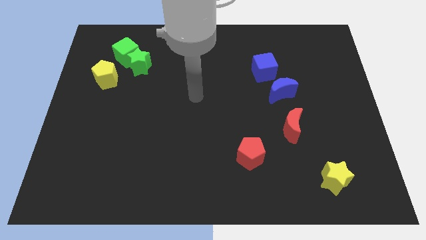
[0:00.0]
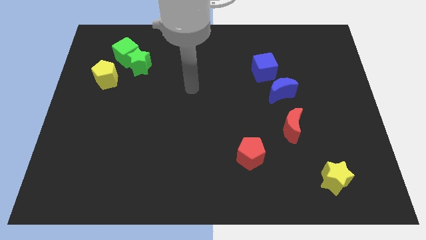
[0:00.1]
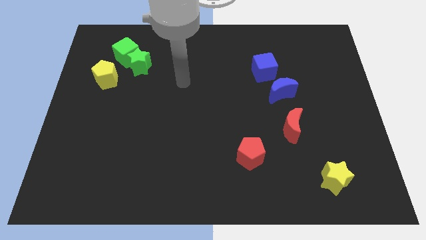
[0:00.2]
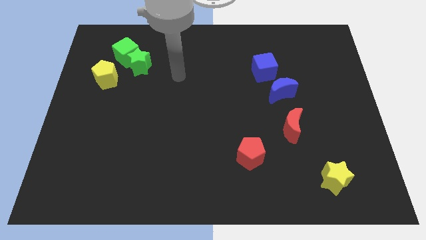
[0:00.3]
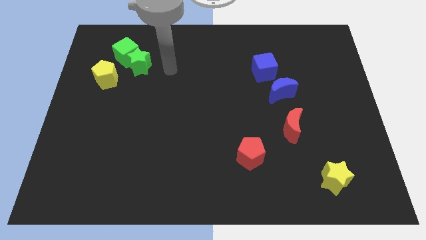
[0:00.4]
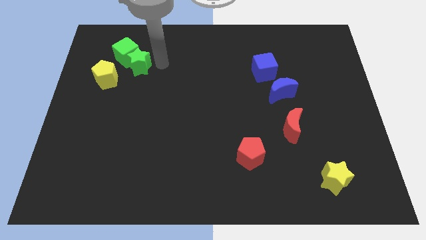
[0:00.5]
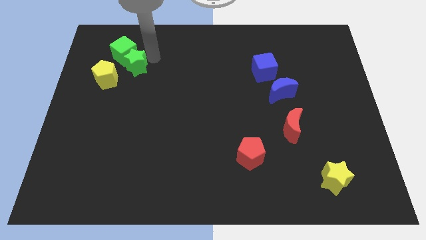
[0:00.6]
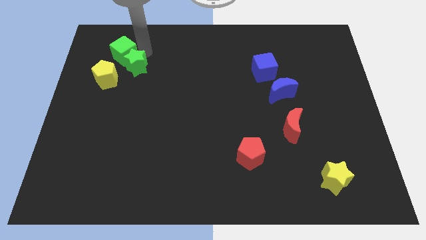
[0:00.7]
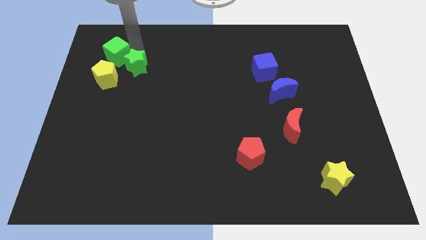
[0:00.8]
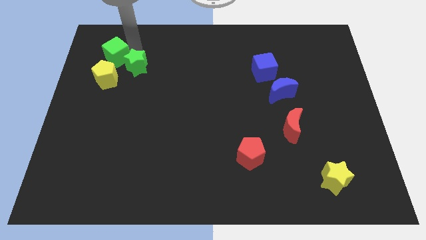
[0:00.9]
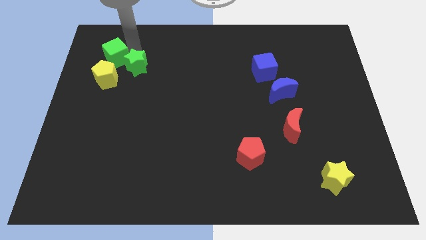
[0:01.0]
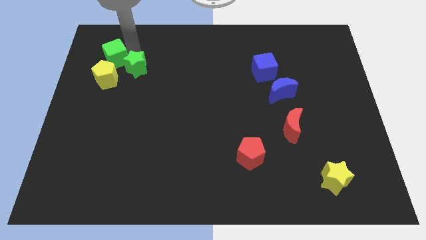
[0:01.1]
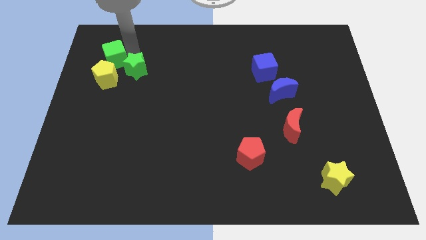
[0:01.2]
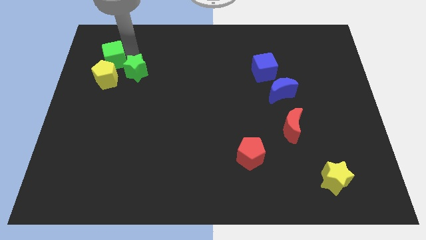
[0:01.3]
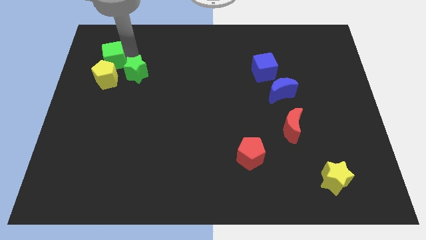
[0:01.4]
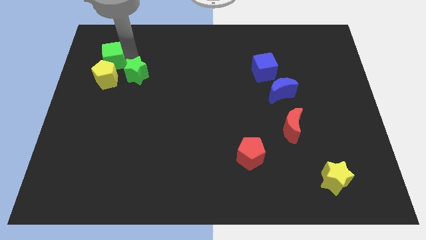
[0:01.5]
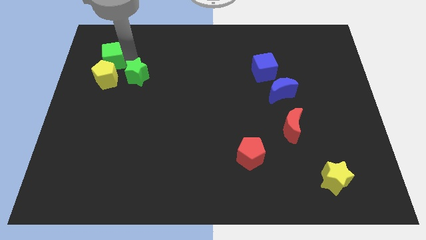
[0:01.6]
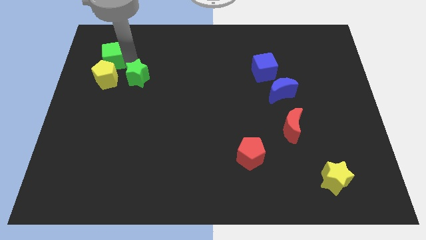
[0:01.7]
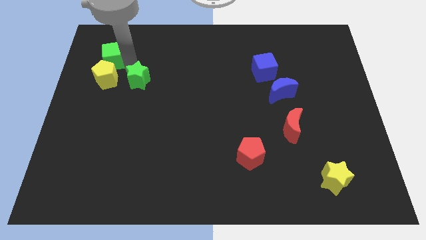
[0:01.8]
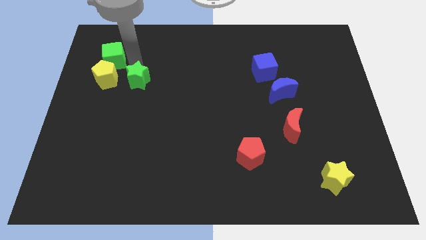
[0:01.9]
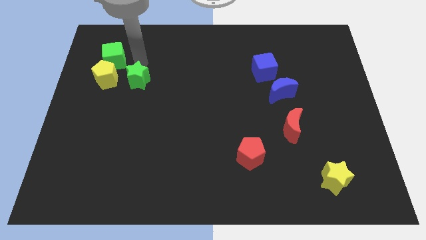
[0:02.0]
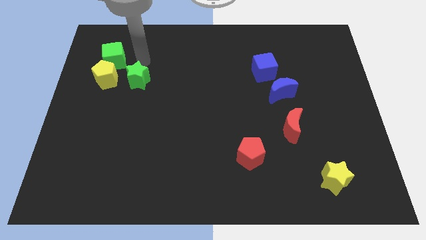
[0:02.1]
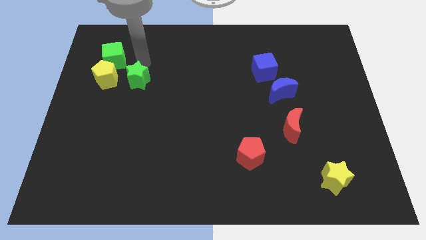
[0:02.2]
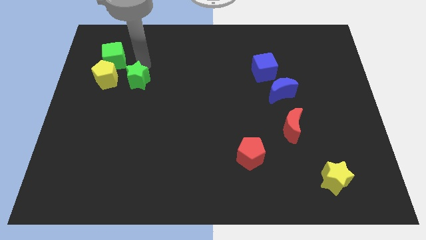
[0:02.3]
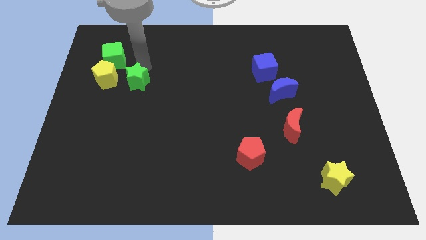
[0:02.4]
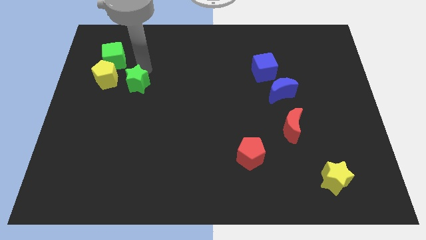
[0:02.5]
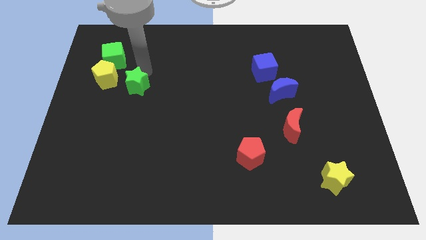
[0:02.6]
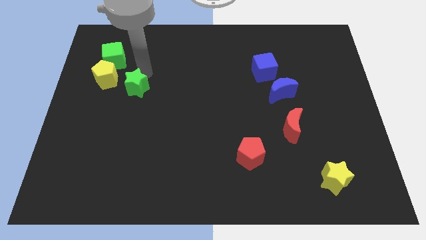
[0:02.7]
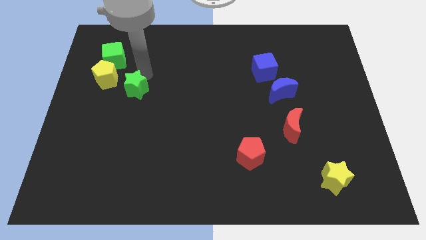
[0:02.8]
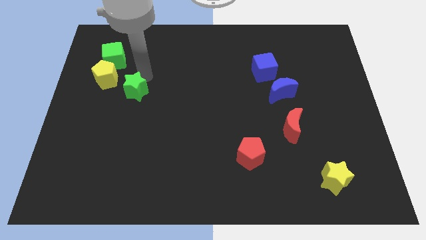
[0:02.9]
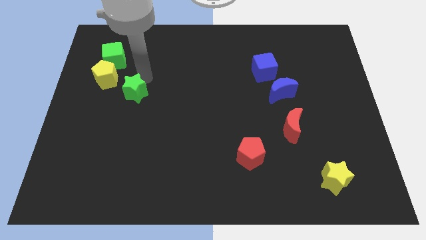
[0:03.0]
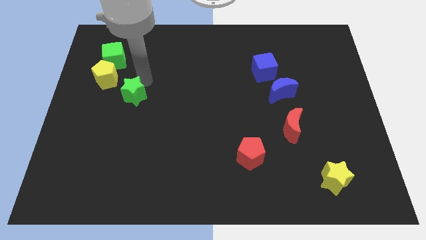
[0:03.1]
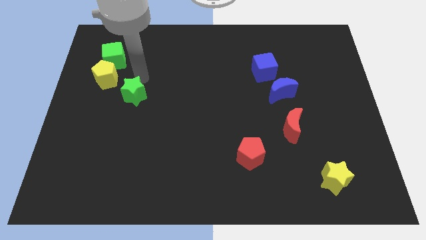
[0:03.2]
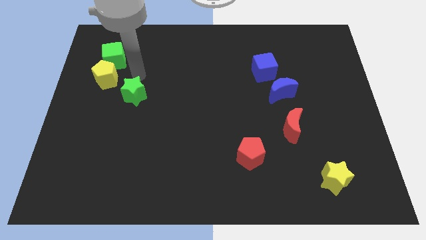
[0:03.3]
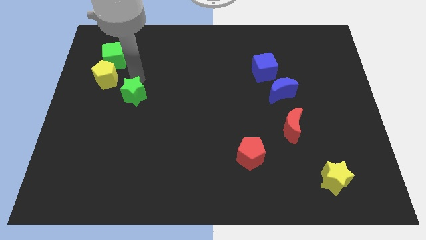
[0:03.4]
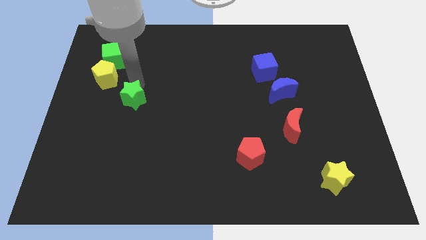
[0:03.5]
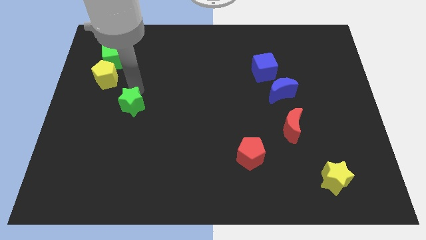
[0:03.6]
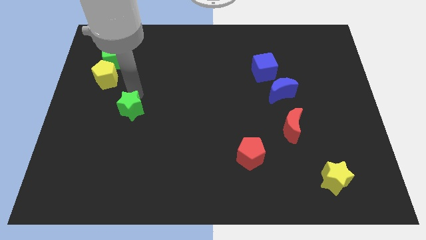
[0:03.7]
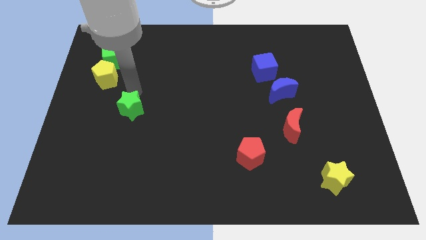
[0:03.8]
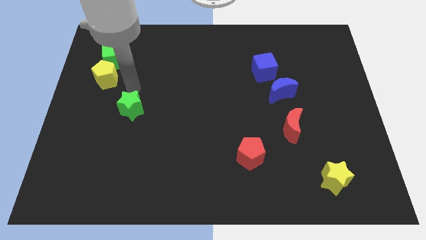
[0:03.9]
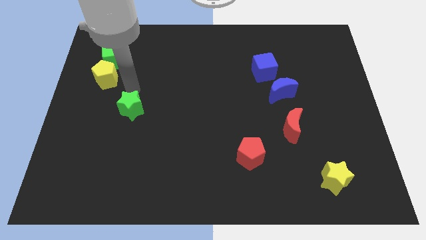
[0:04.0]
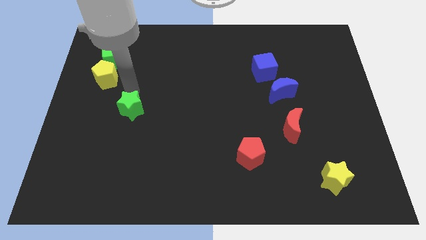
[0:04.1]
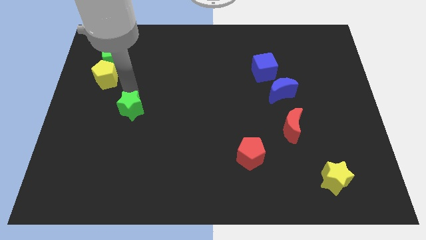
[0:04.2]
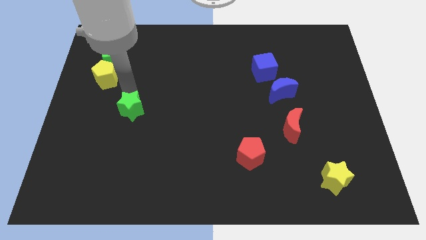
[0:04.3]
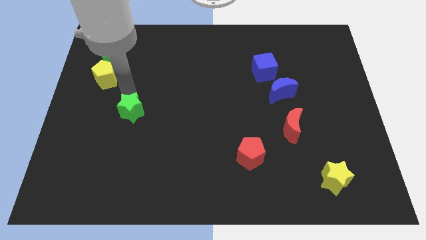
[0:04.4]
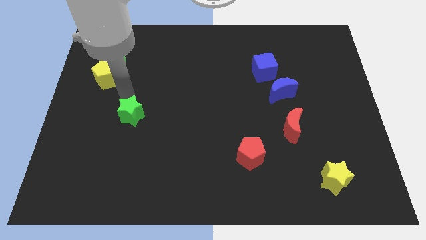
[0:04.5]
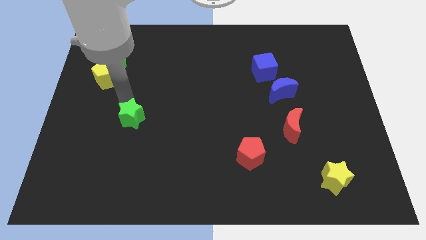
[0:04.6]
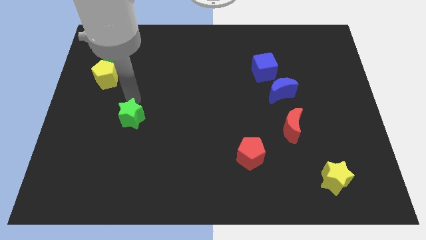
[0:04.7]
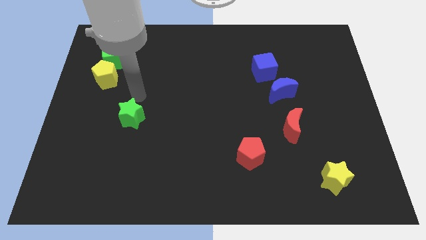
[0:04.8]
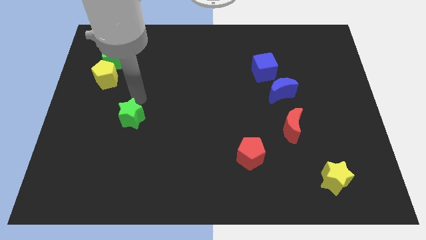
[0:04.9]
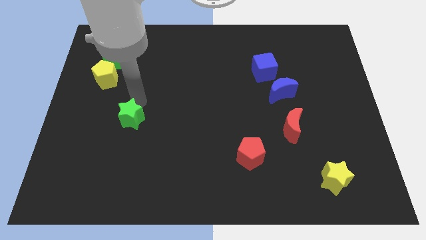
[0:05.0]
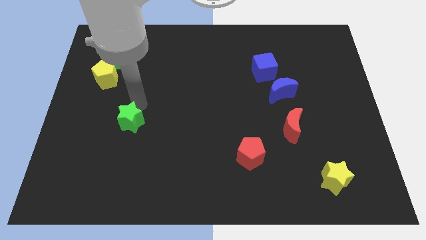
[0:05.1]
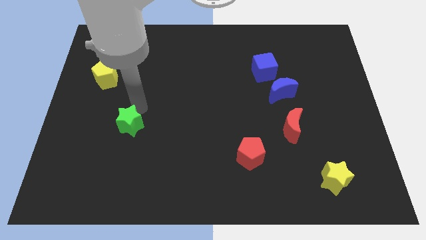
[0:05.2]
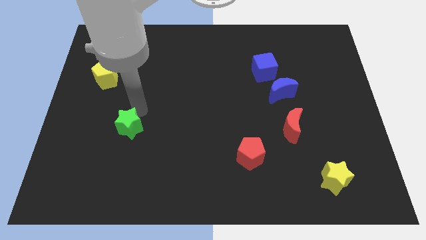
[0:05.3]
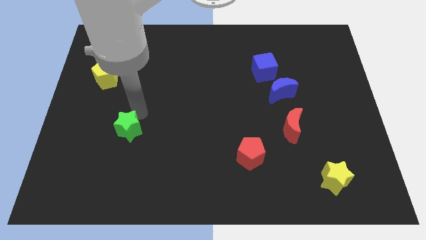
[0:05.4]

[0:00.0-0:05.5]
push the green star down

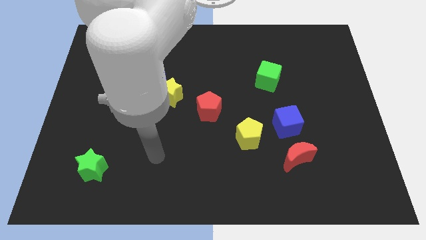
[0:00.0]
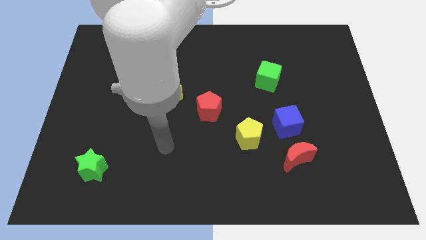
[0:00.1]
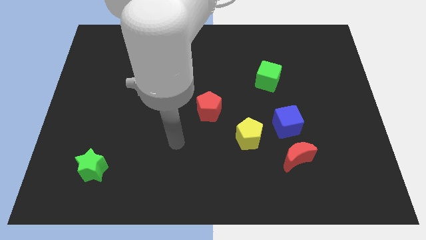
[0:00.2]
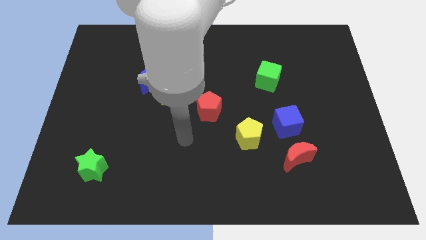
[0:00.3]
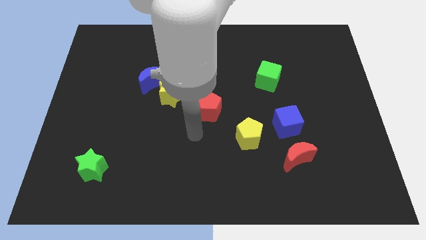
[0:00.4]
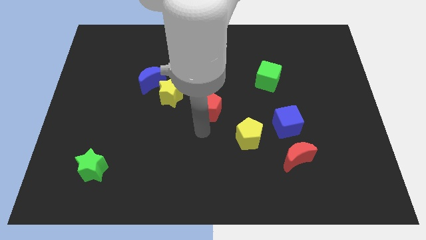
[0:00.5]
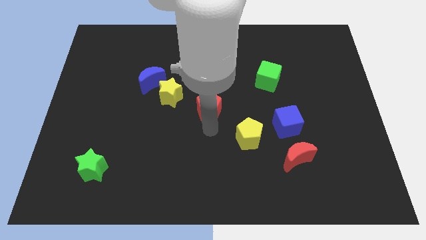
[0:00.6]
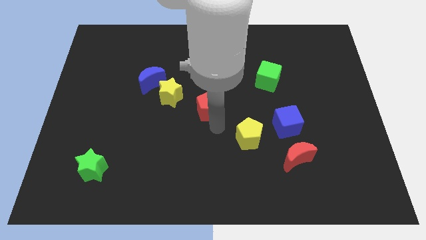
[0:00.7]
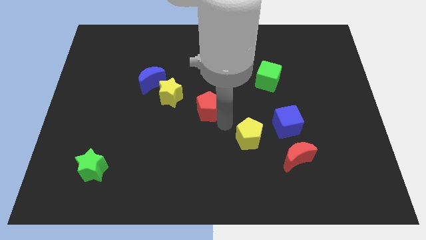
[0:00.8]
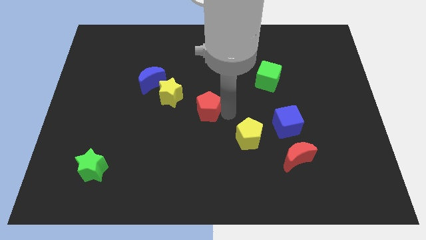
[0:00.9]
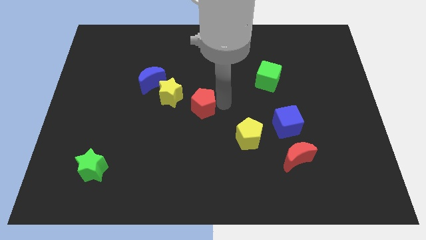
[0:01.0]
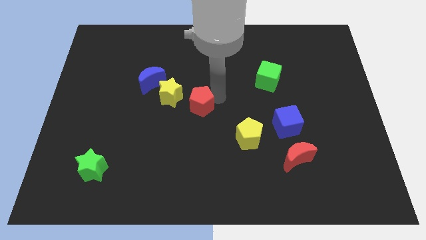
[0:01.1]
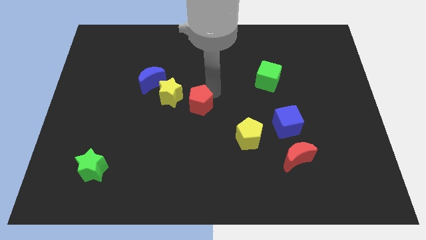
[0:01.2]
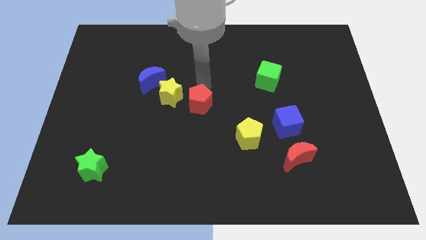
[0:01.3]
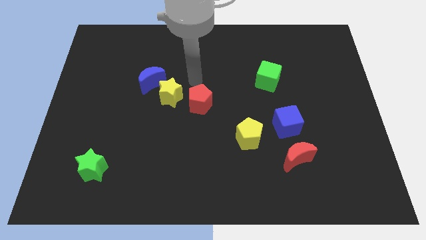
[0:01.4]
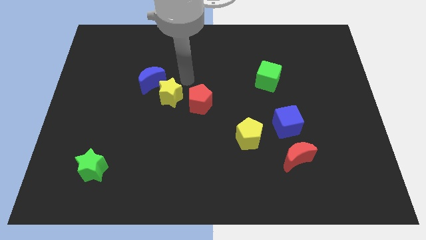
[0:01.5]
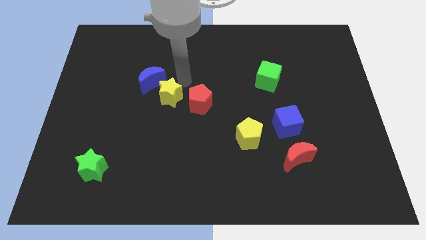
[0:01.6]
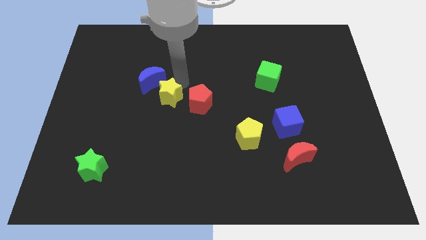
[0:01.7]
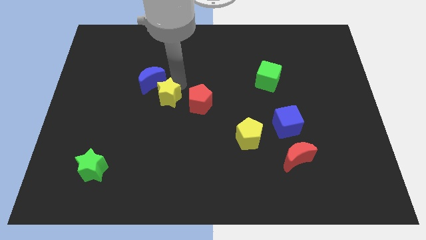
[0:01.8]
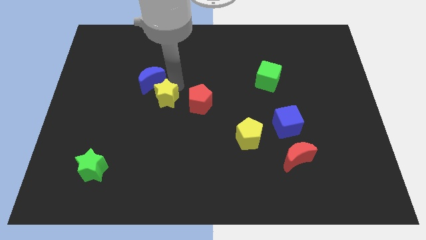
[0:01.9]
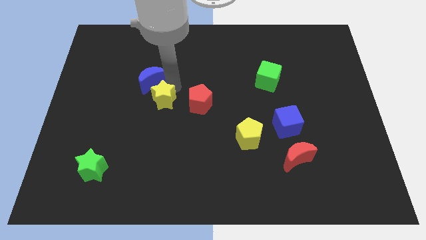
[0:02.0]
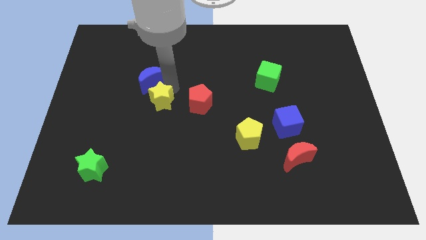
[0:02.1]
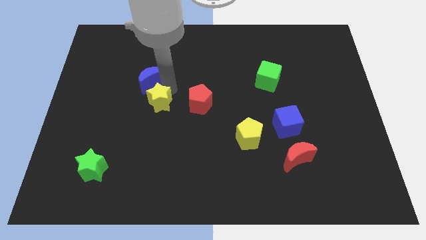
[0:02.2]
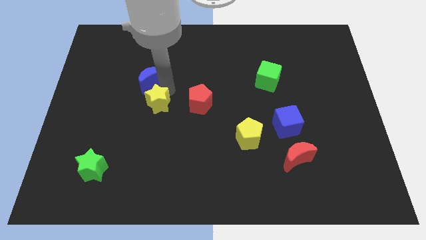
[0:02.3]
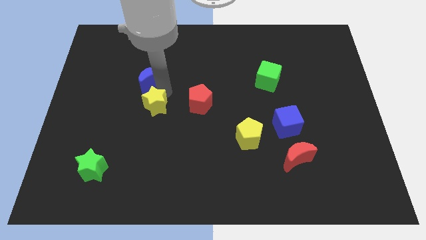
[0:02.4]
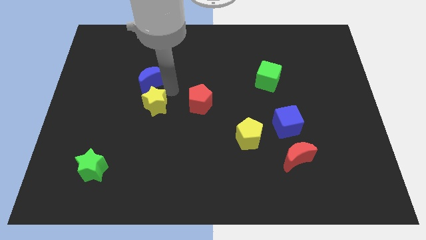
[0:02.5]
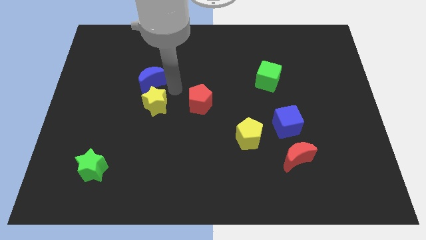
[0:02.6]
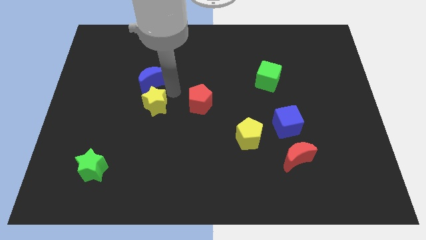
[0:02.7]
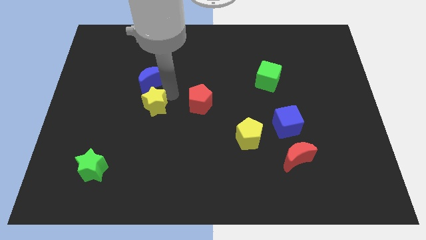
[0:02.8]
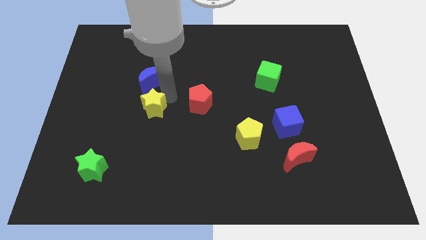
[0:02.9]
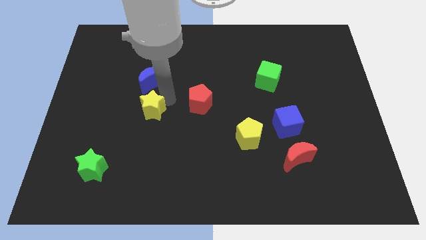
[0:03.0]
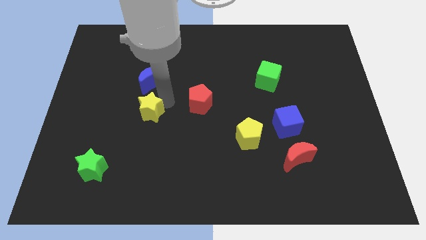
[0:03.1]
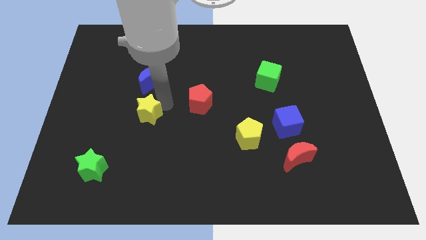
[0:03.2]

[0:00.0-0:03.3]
slightly slide the yellow star downwards and left
